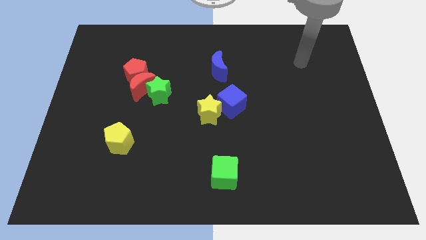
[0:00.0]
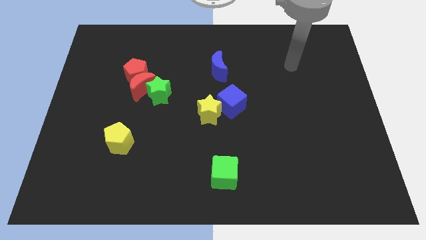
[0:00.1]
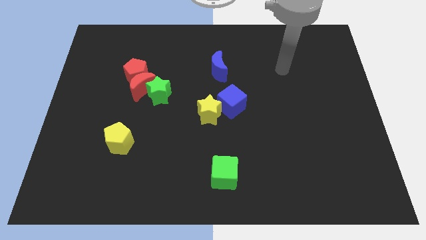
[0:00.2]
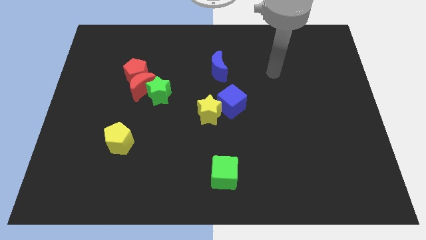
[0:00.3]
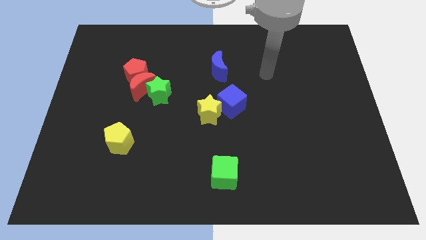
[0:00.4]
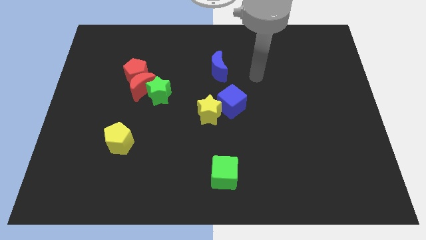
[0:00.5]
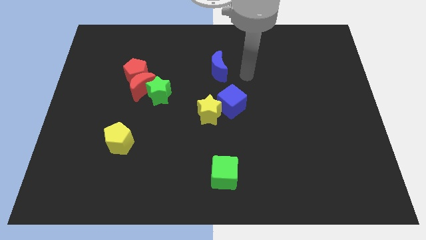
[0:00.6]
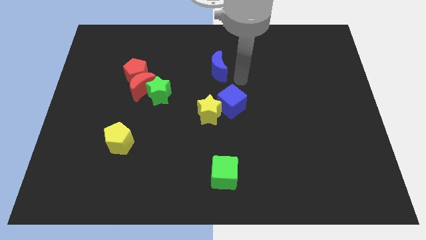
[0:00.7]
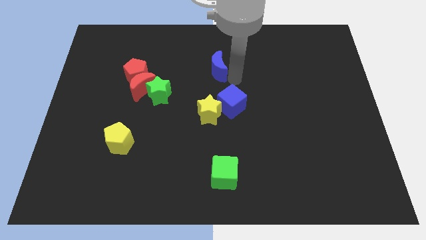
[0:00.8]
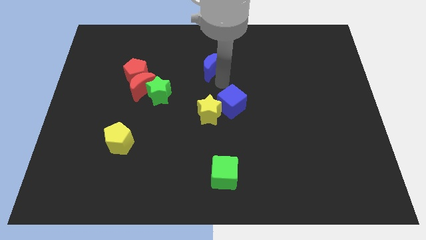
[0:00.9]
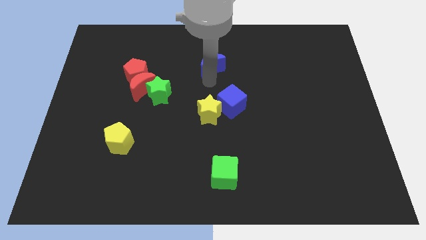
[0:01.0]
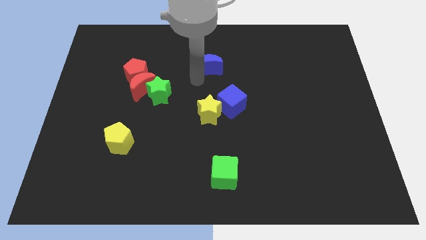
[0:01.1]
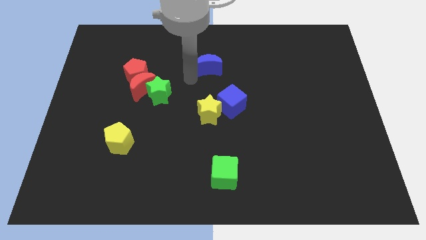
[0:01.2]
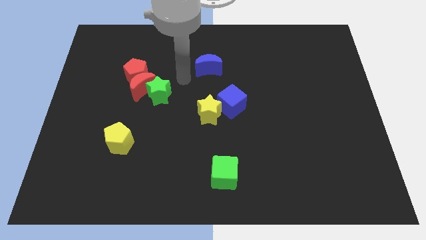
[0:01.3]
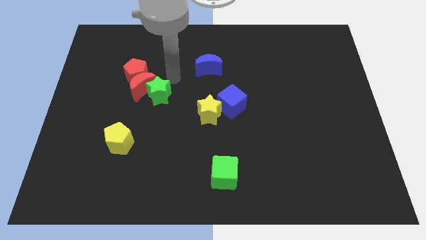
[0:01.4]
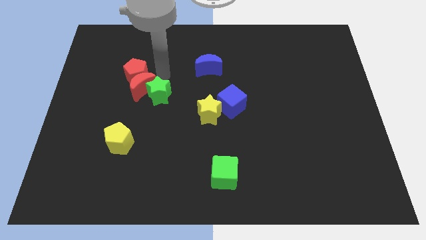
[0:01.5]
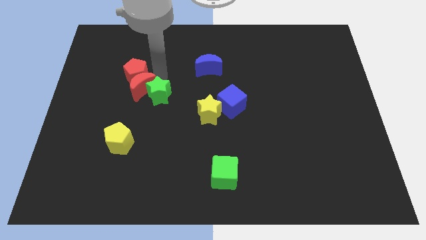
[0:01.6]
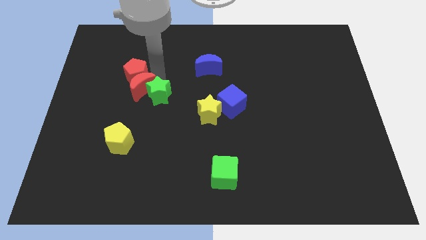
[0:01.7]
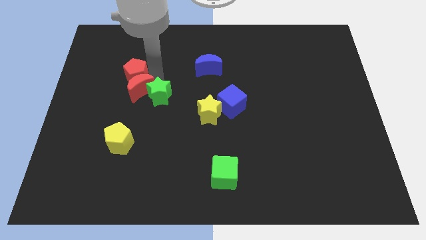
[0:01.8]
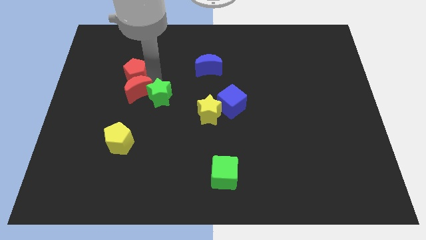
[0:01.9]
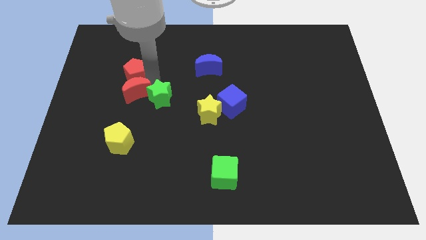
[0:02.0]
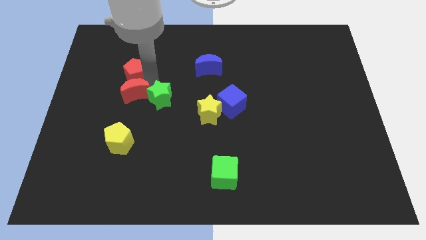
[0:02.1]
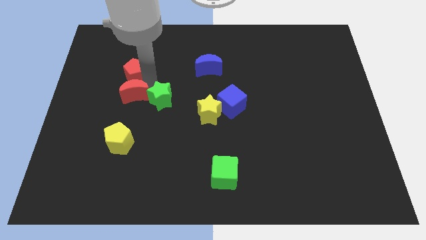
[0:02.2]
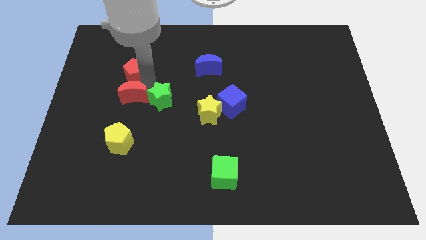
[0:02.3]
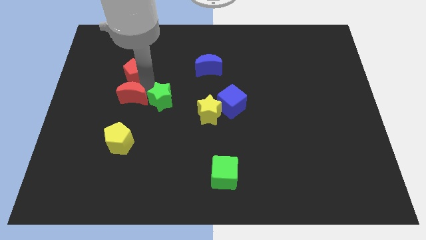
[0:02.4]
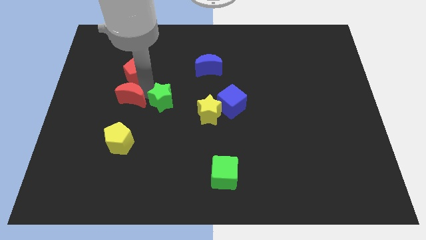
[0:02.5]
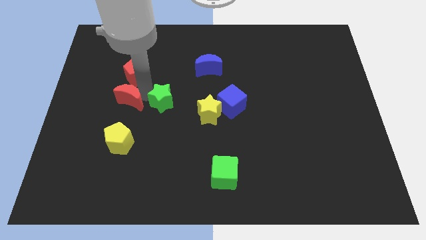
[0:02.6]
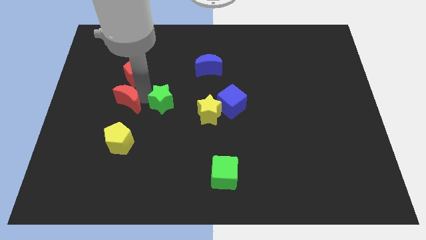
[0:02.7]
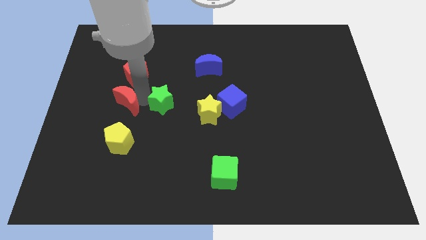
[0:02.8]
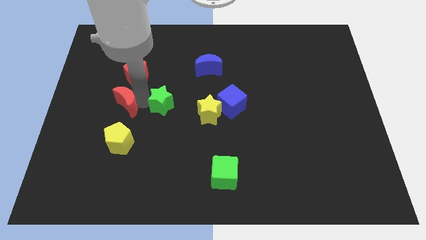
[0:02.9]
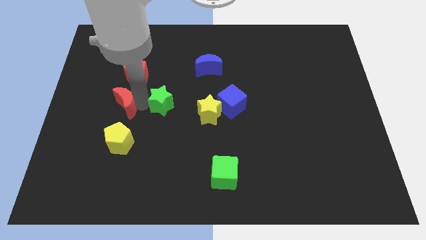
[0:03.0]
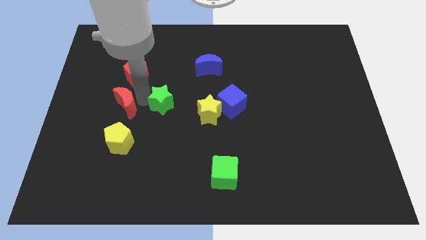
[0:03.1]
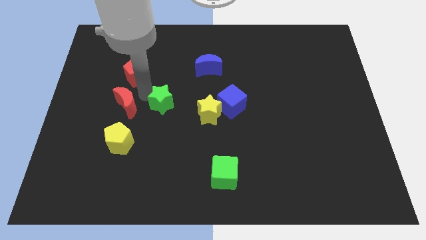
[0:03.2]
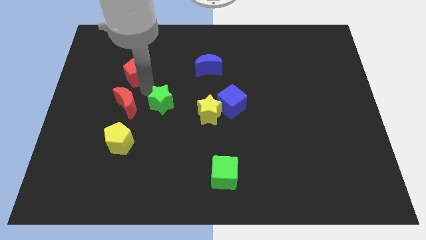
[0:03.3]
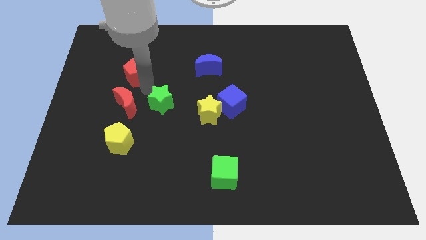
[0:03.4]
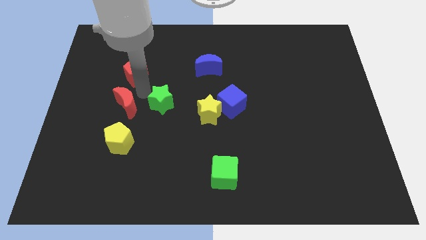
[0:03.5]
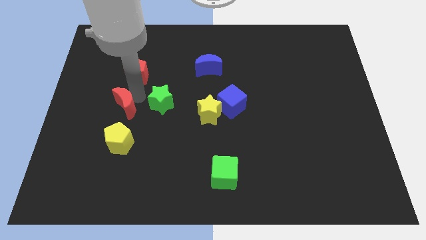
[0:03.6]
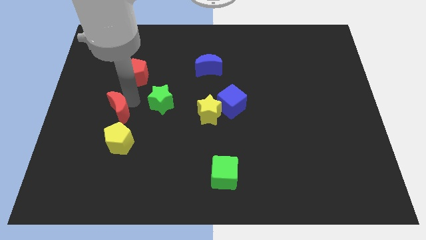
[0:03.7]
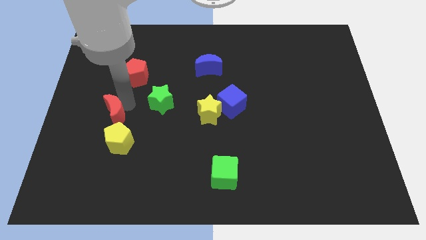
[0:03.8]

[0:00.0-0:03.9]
pull the red moon apart from the green star and red pentagon

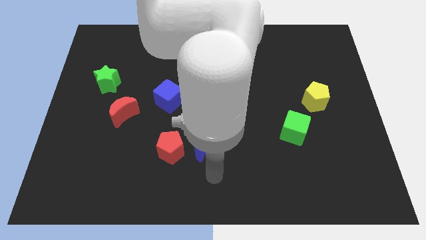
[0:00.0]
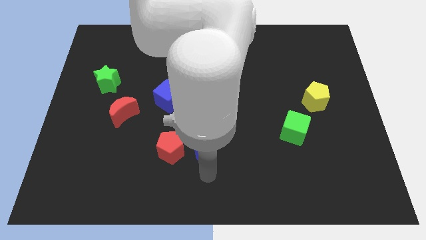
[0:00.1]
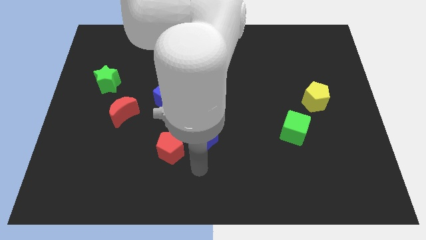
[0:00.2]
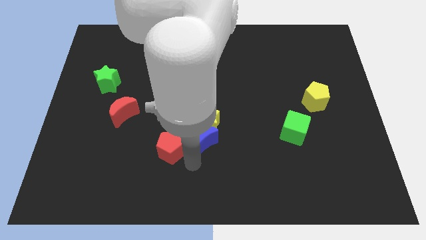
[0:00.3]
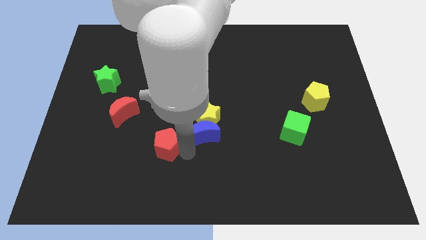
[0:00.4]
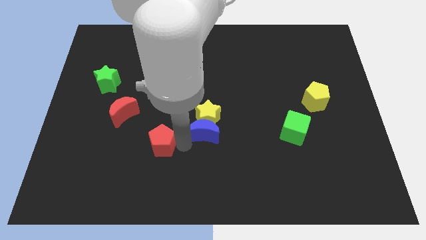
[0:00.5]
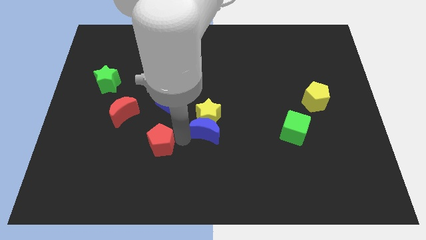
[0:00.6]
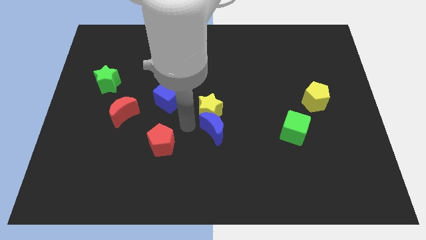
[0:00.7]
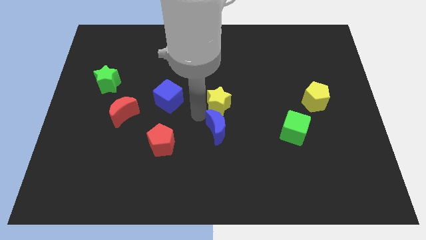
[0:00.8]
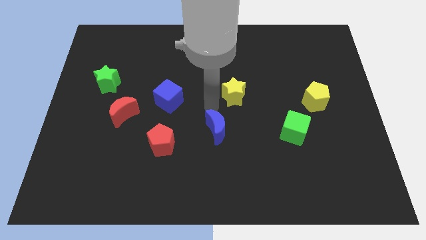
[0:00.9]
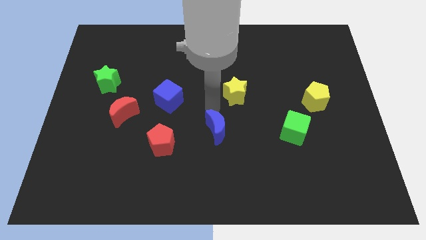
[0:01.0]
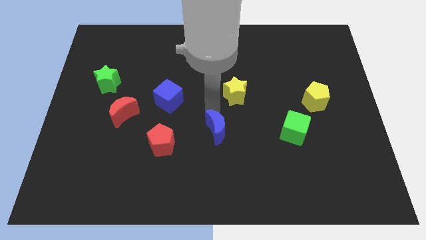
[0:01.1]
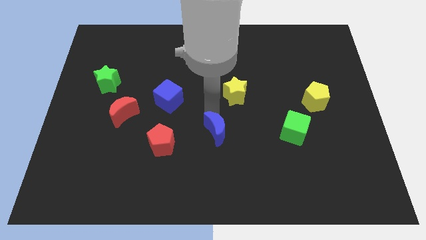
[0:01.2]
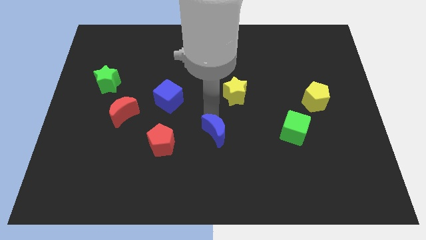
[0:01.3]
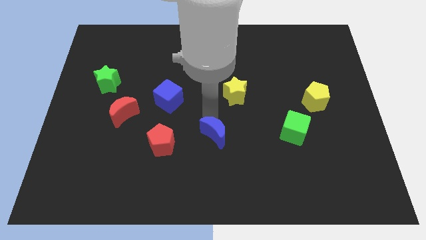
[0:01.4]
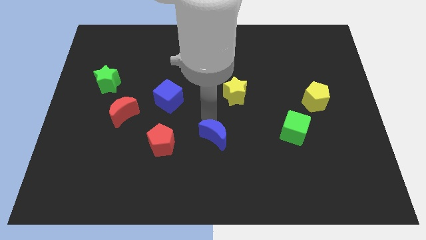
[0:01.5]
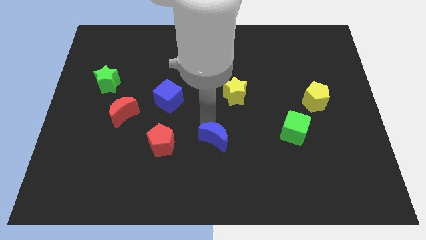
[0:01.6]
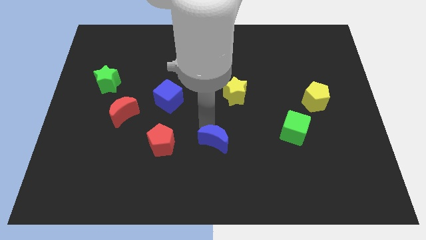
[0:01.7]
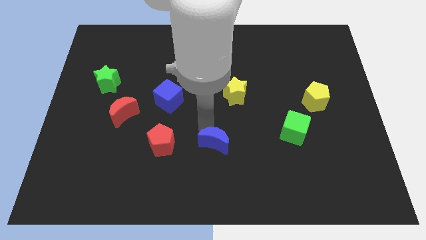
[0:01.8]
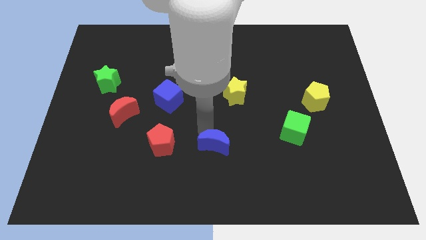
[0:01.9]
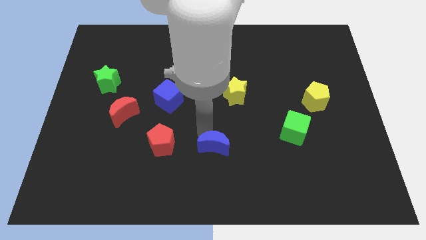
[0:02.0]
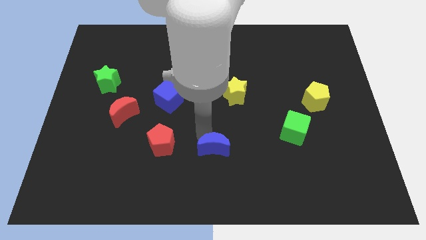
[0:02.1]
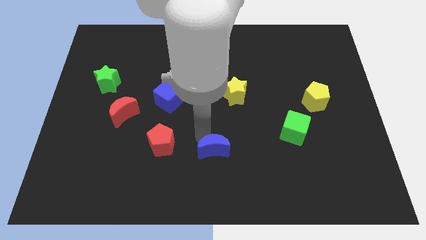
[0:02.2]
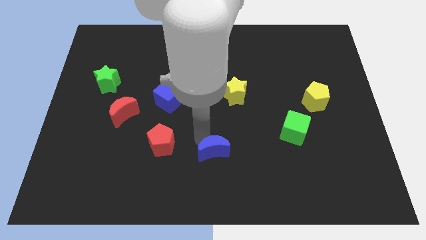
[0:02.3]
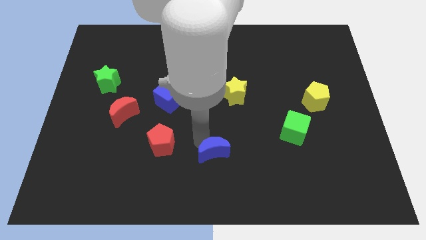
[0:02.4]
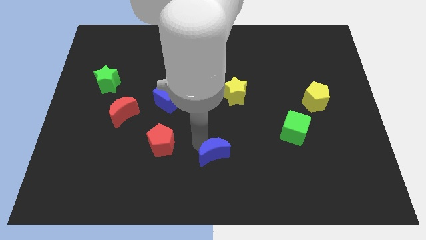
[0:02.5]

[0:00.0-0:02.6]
move the blue moon away from the yellow star and red pentagon

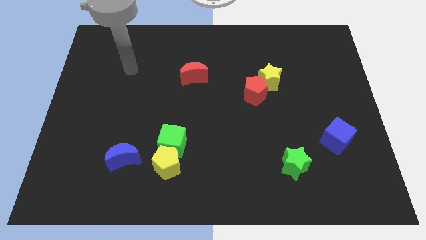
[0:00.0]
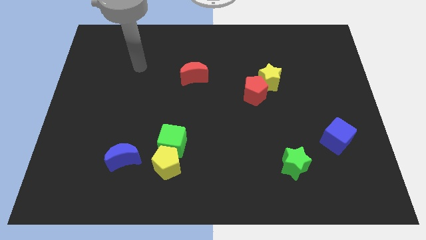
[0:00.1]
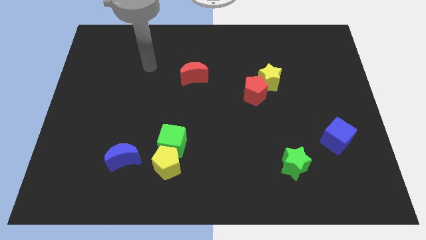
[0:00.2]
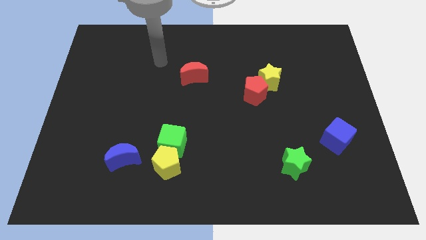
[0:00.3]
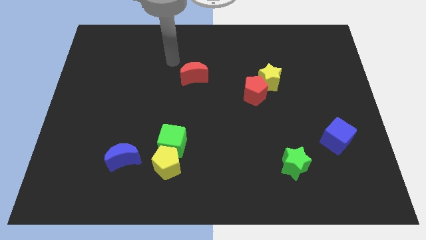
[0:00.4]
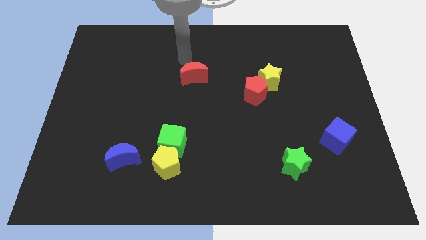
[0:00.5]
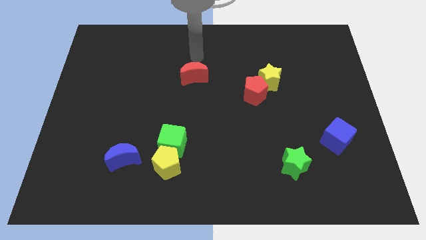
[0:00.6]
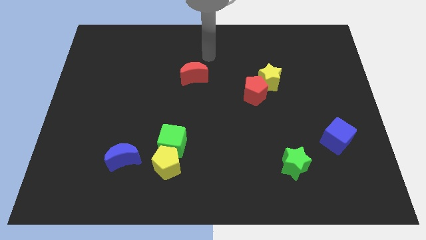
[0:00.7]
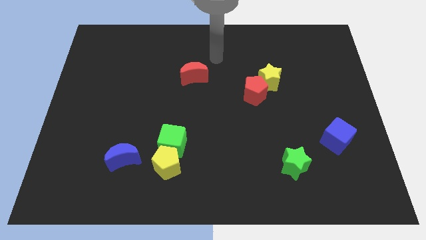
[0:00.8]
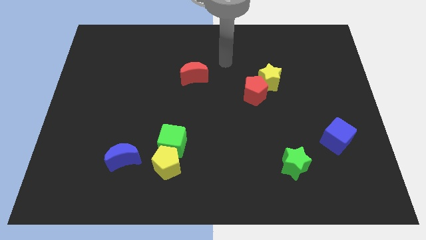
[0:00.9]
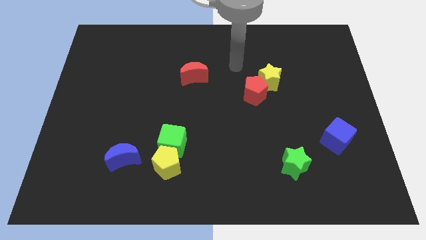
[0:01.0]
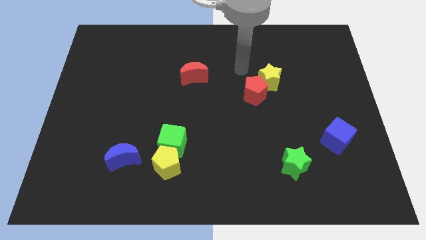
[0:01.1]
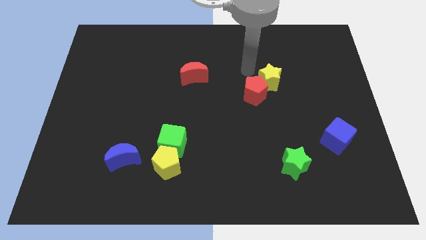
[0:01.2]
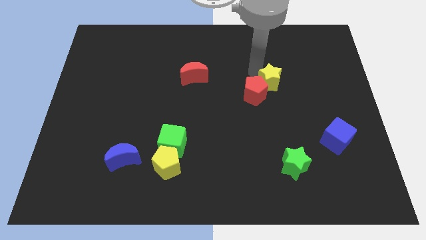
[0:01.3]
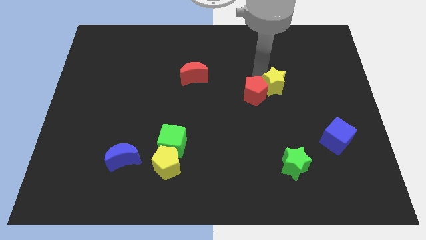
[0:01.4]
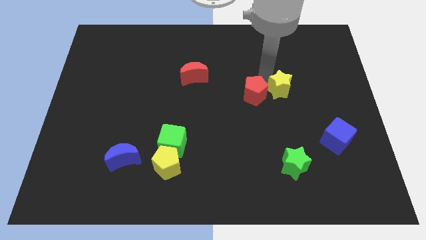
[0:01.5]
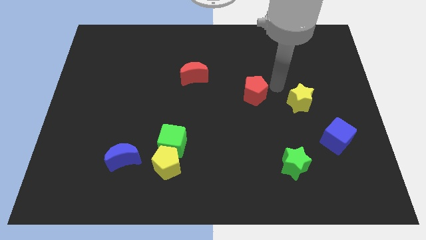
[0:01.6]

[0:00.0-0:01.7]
separate the red pentagon from the yellow star

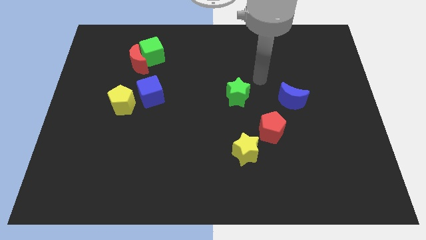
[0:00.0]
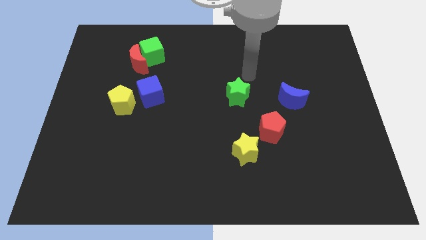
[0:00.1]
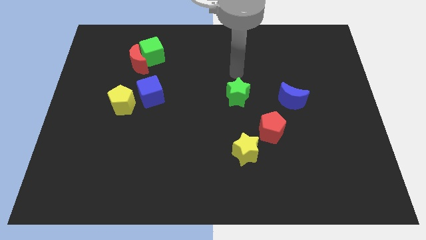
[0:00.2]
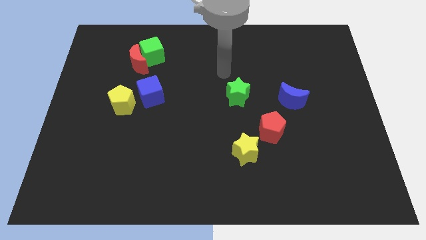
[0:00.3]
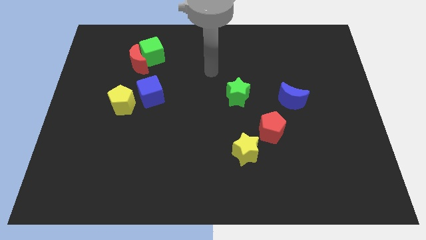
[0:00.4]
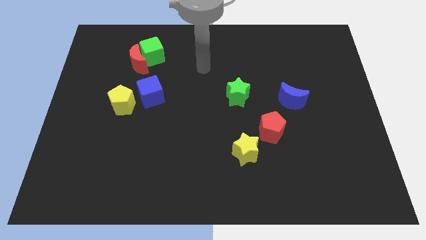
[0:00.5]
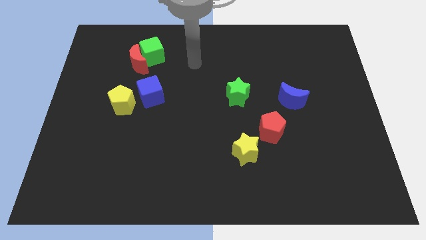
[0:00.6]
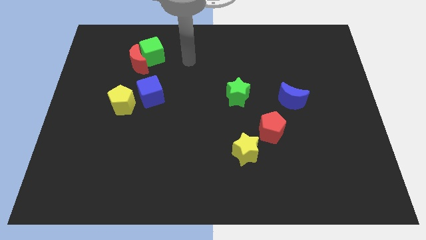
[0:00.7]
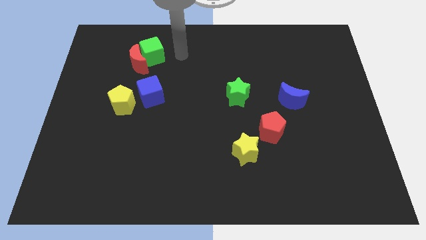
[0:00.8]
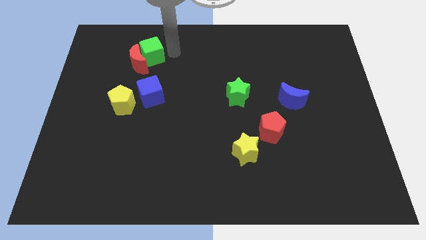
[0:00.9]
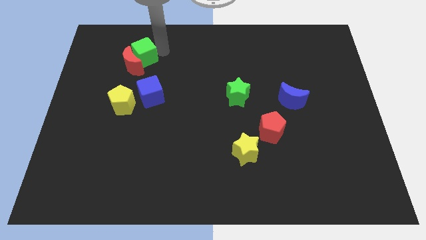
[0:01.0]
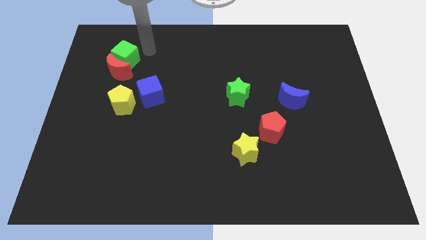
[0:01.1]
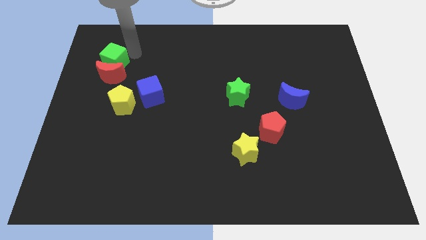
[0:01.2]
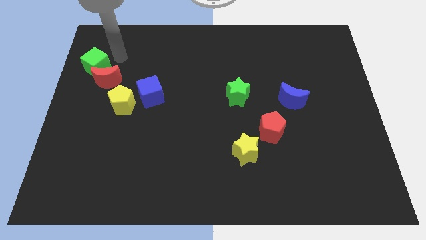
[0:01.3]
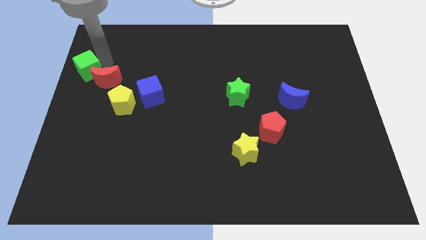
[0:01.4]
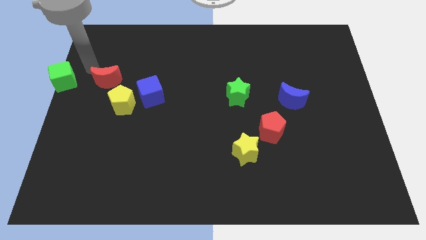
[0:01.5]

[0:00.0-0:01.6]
separate the red moon from the green cube
